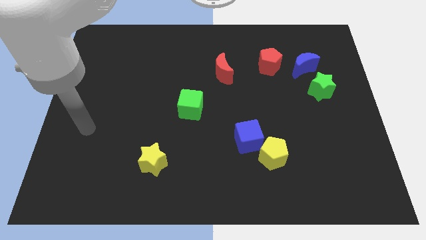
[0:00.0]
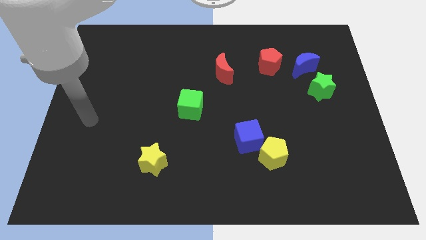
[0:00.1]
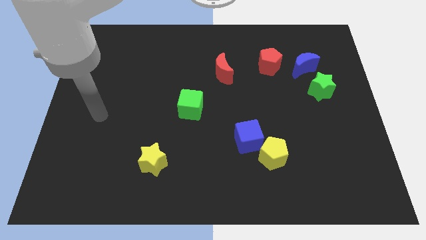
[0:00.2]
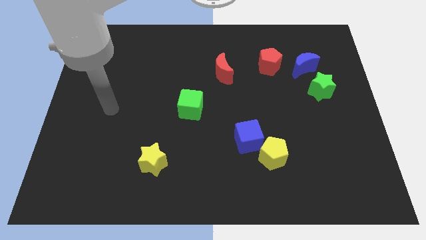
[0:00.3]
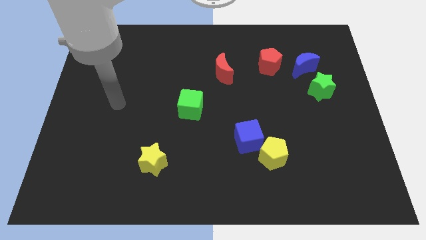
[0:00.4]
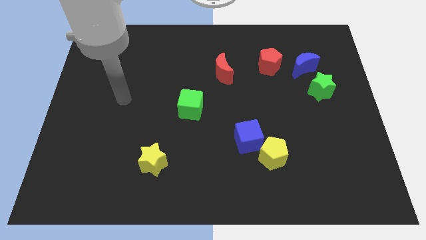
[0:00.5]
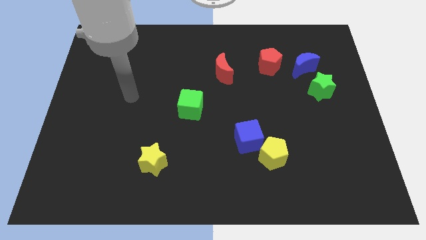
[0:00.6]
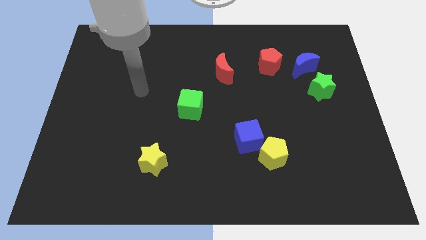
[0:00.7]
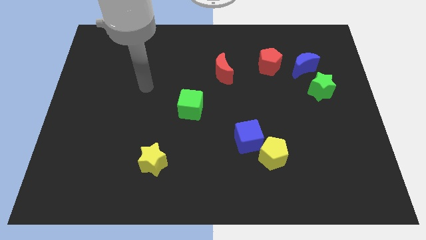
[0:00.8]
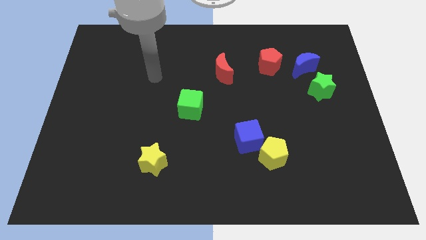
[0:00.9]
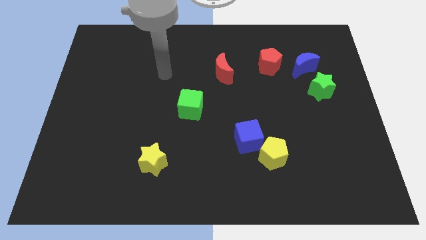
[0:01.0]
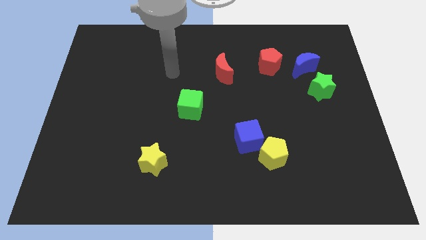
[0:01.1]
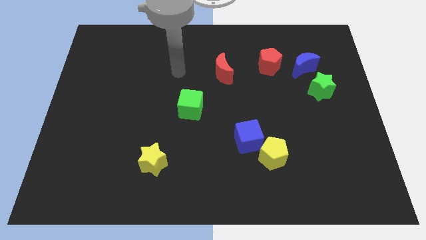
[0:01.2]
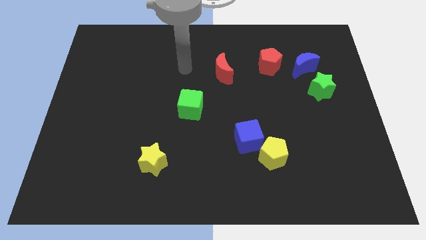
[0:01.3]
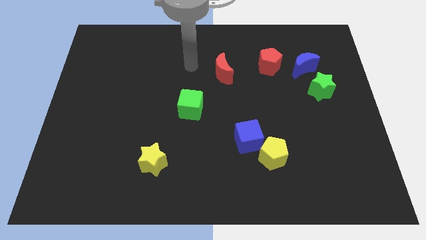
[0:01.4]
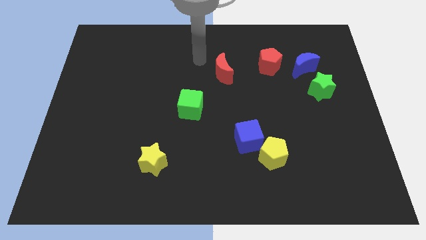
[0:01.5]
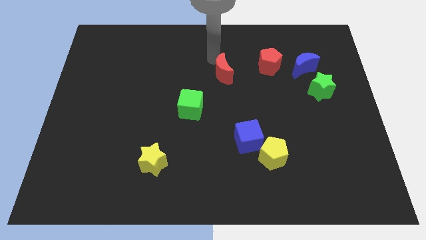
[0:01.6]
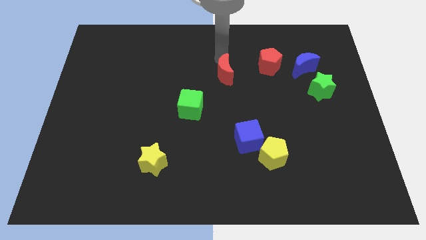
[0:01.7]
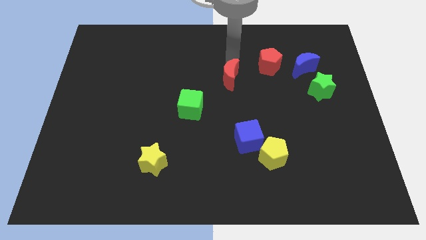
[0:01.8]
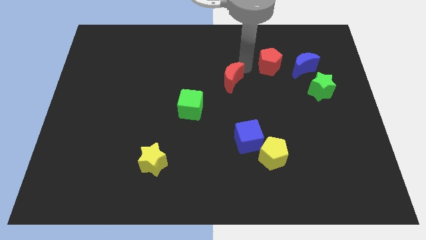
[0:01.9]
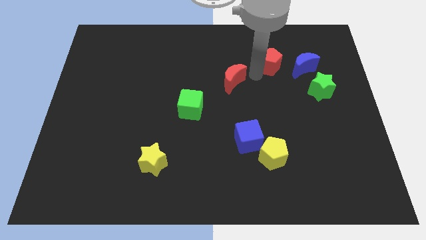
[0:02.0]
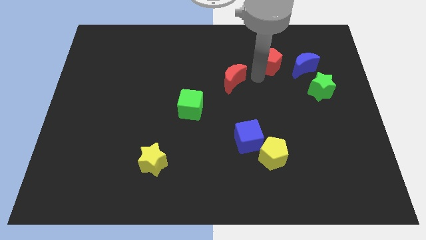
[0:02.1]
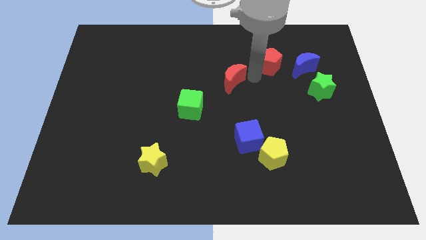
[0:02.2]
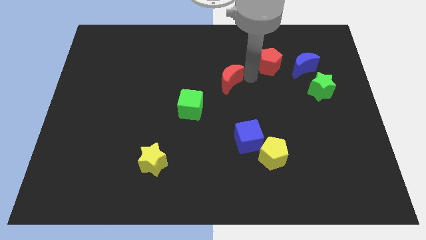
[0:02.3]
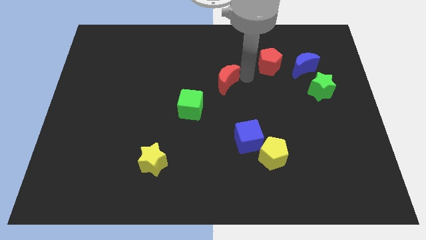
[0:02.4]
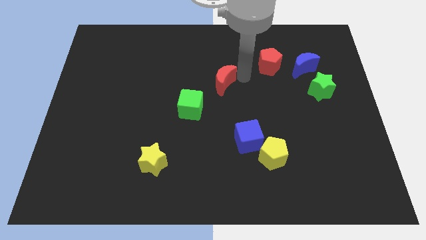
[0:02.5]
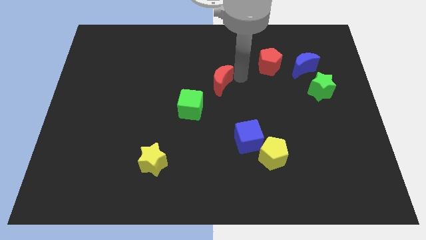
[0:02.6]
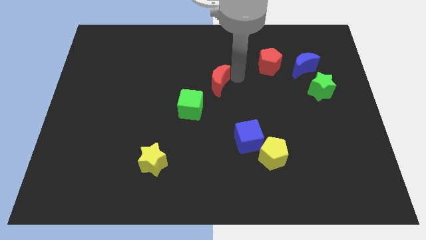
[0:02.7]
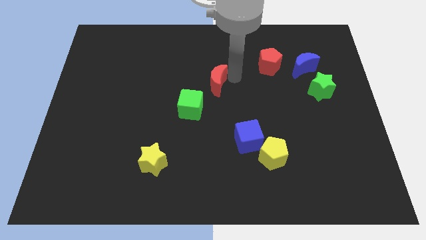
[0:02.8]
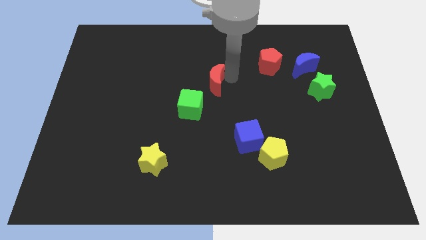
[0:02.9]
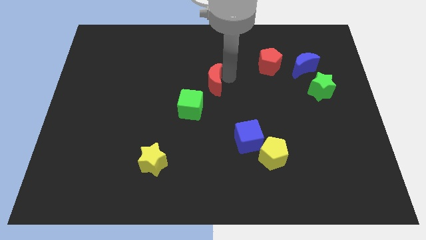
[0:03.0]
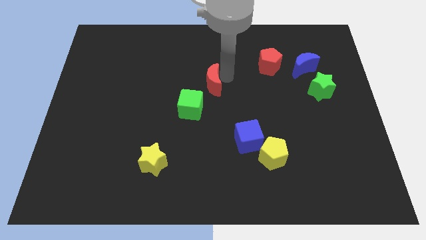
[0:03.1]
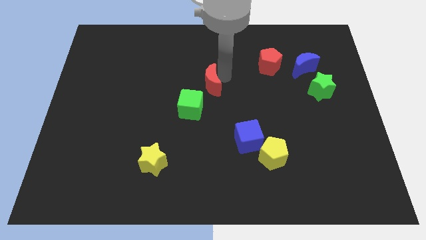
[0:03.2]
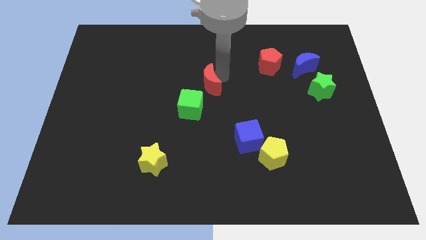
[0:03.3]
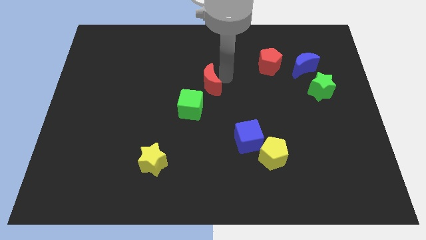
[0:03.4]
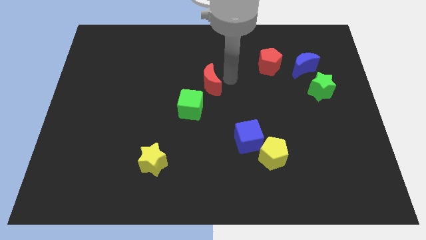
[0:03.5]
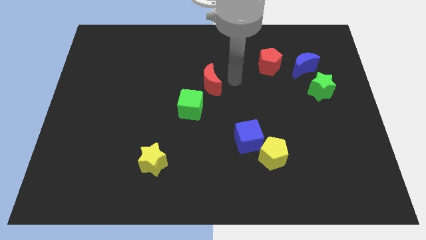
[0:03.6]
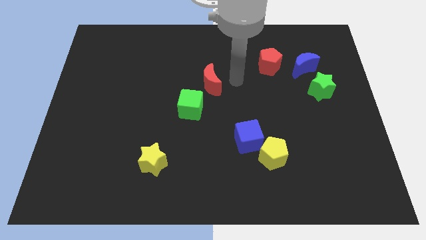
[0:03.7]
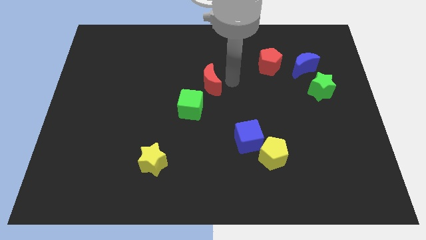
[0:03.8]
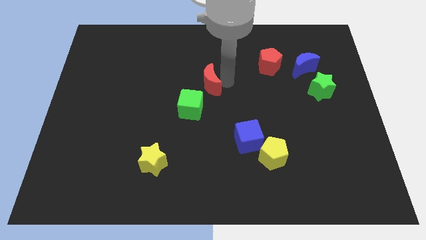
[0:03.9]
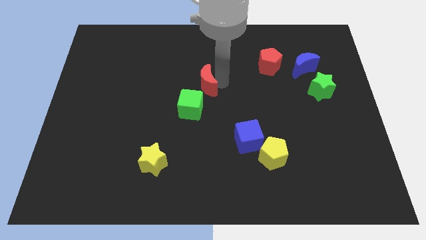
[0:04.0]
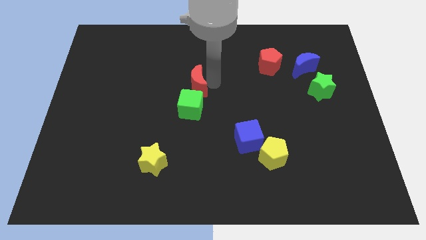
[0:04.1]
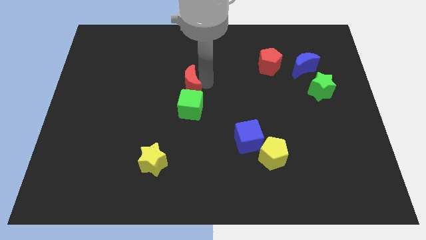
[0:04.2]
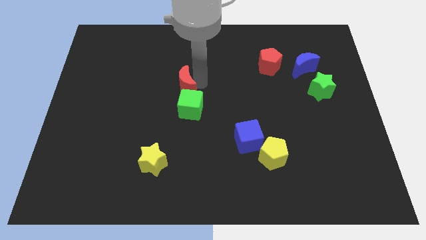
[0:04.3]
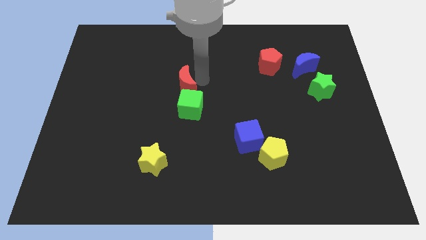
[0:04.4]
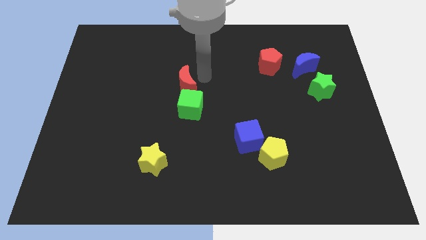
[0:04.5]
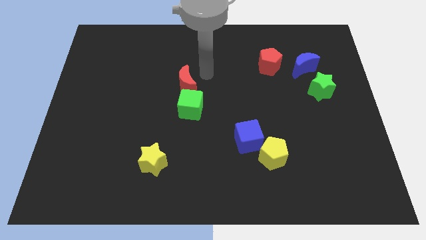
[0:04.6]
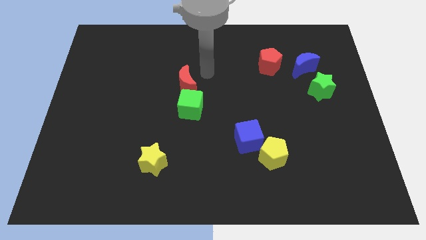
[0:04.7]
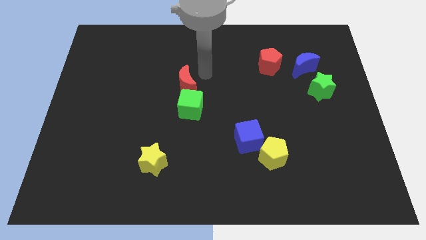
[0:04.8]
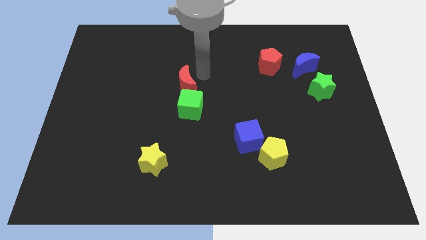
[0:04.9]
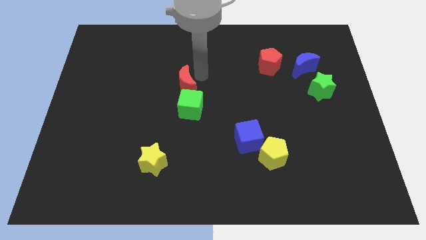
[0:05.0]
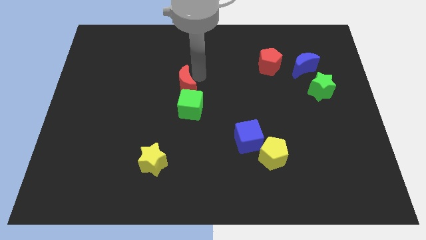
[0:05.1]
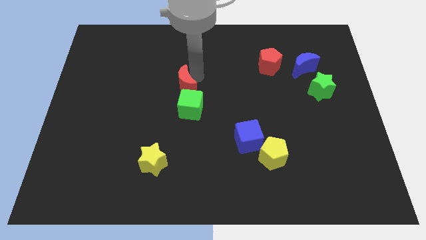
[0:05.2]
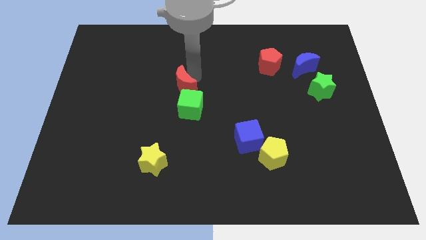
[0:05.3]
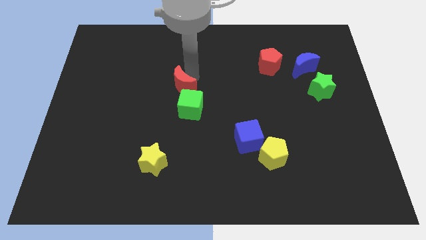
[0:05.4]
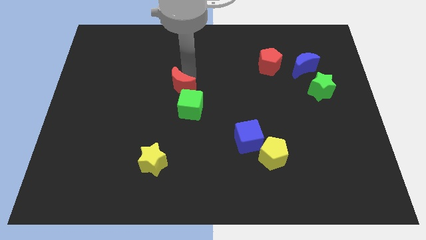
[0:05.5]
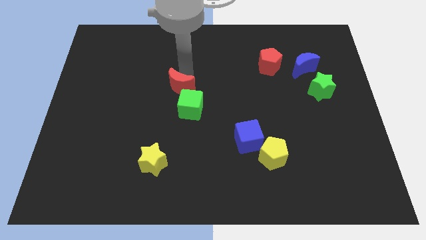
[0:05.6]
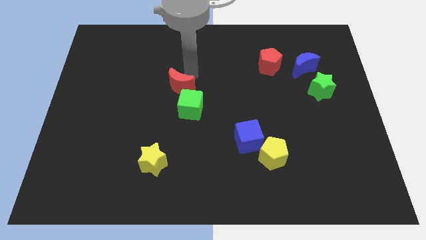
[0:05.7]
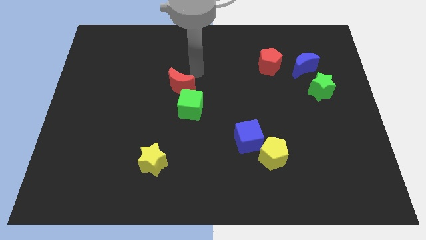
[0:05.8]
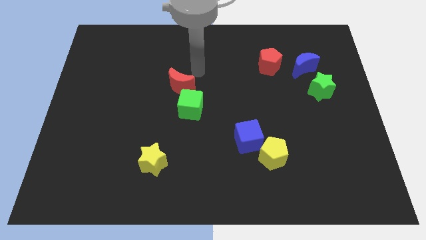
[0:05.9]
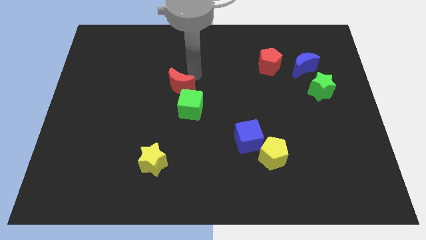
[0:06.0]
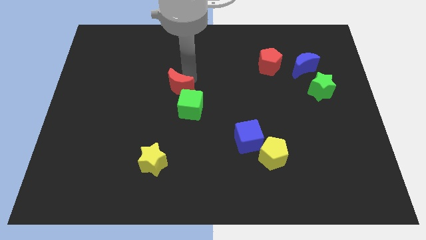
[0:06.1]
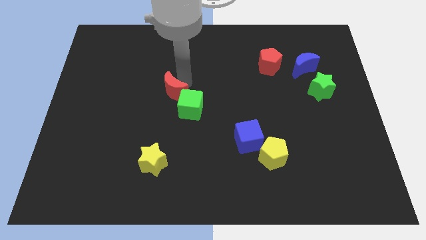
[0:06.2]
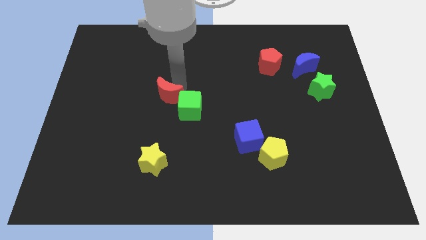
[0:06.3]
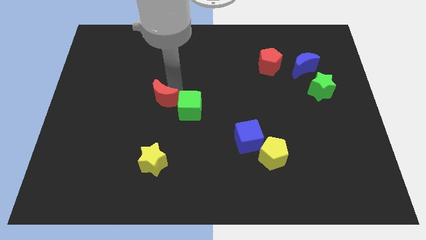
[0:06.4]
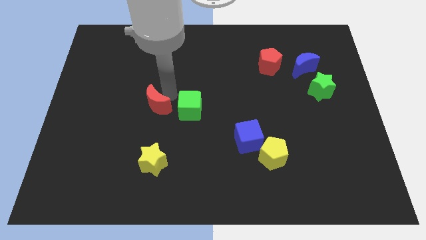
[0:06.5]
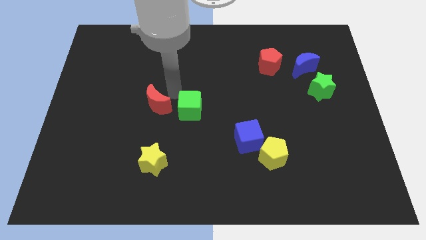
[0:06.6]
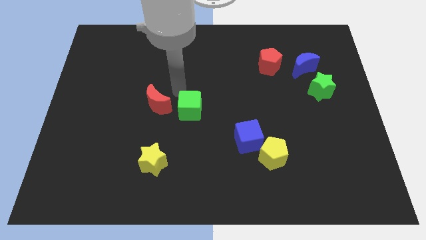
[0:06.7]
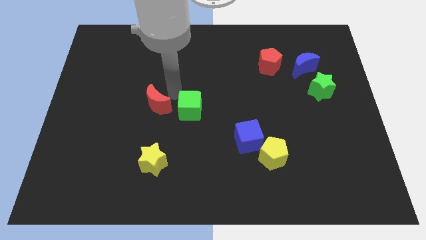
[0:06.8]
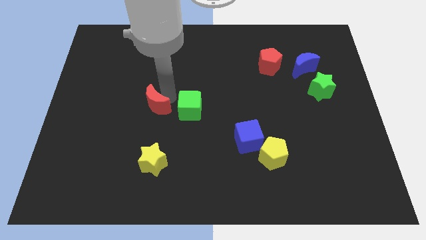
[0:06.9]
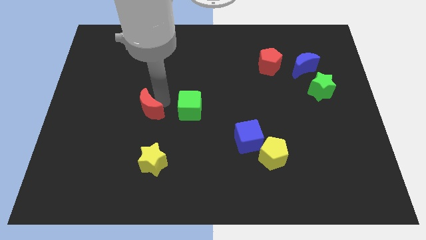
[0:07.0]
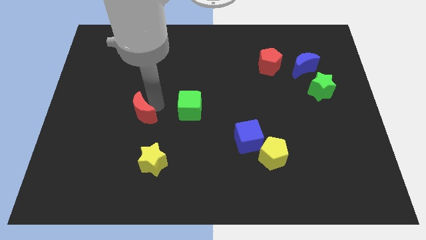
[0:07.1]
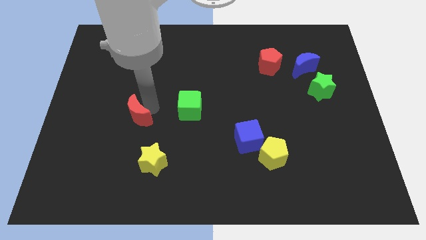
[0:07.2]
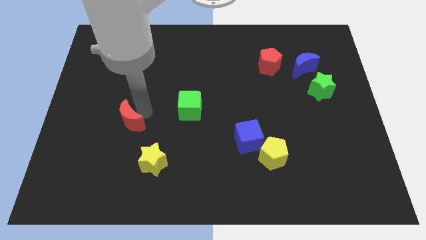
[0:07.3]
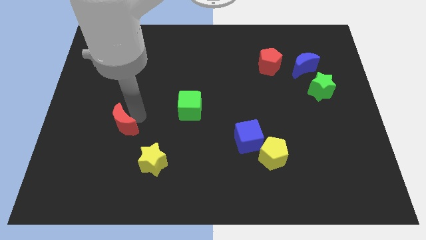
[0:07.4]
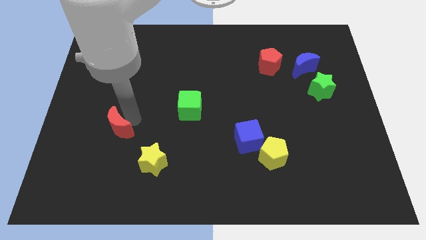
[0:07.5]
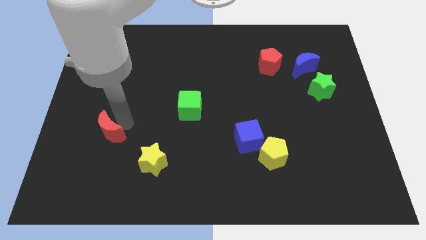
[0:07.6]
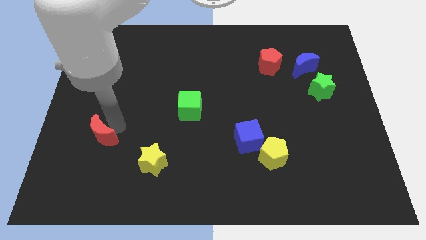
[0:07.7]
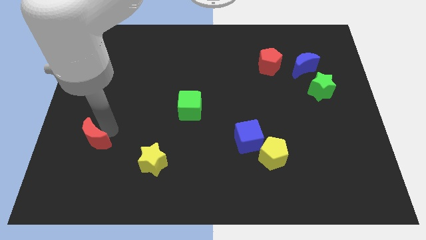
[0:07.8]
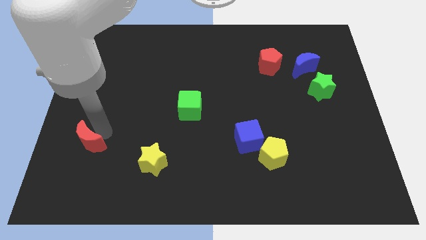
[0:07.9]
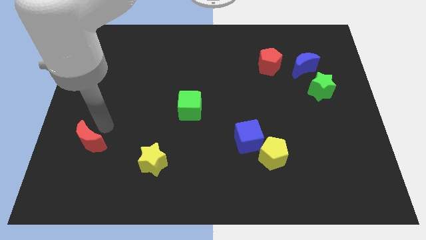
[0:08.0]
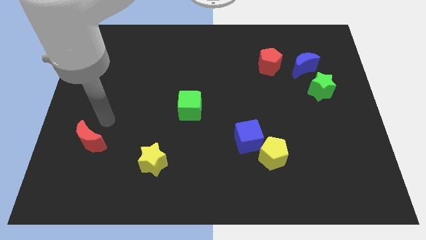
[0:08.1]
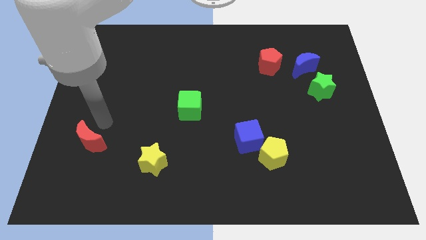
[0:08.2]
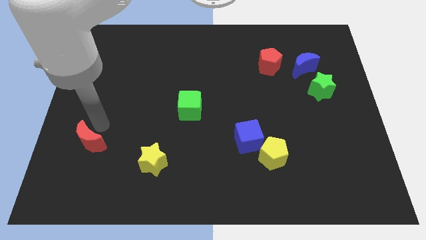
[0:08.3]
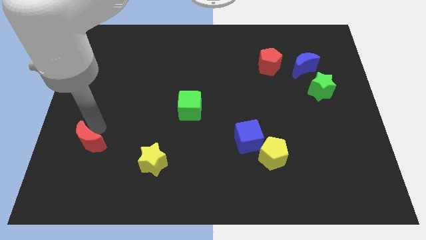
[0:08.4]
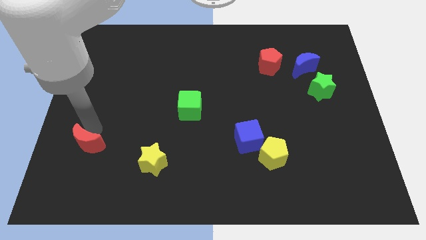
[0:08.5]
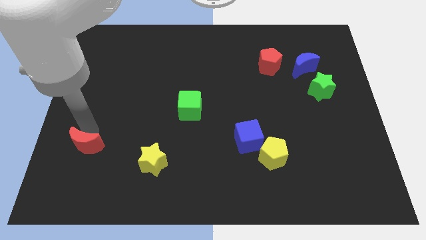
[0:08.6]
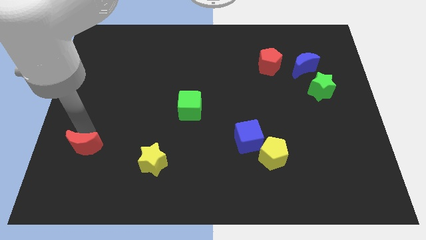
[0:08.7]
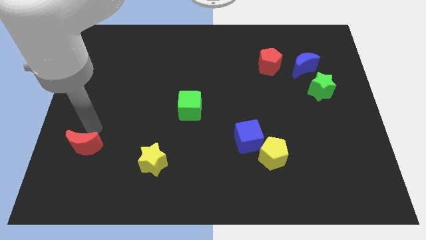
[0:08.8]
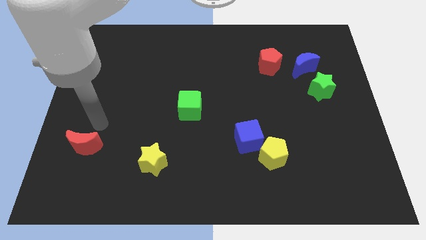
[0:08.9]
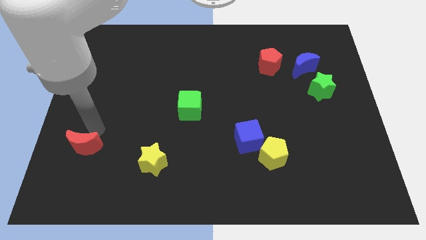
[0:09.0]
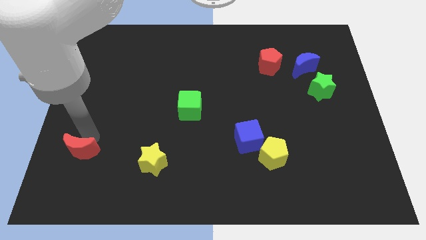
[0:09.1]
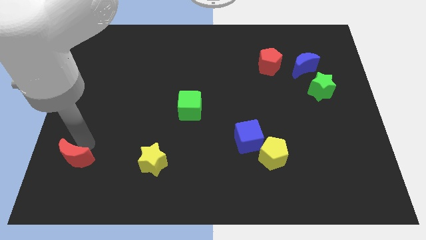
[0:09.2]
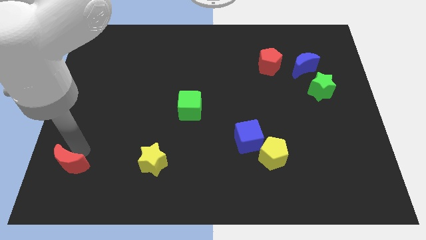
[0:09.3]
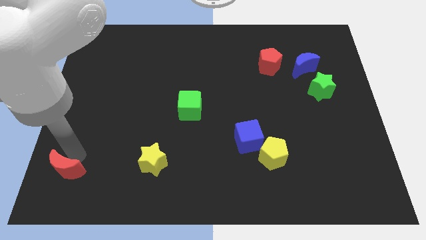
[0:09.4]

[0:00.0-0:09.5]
move the red moon to the bottom left
